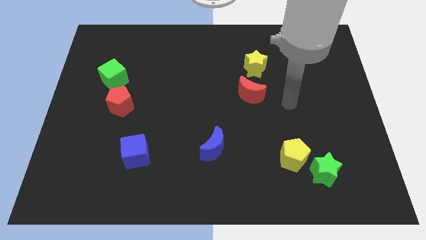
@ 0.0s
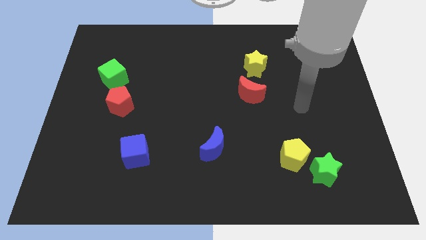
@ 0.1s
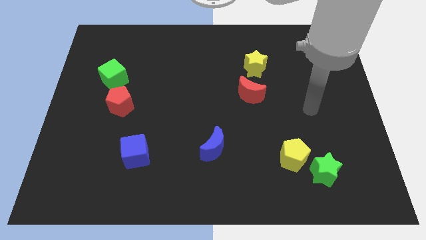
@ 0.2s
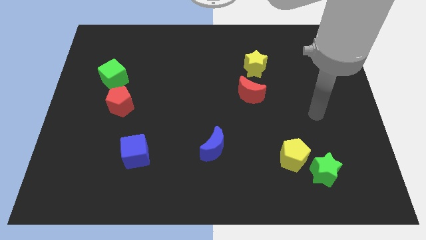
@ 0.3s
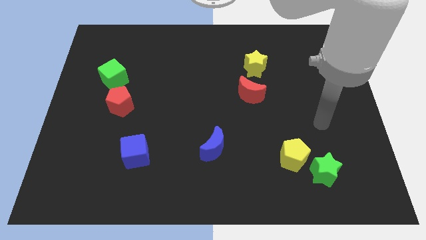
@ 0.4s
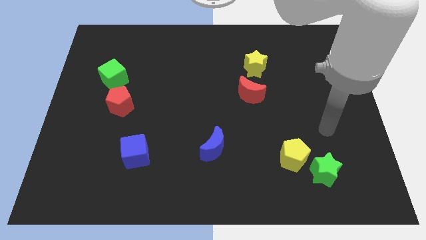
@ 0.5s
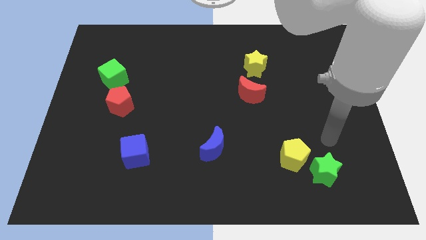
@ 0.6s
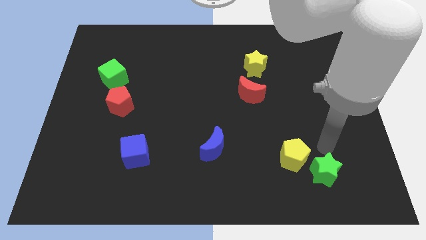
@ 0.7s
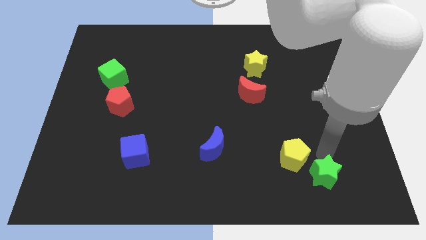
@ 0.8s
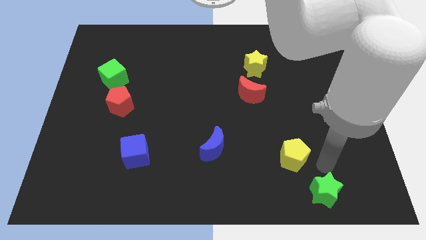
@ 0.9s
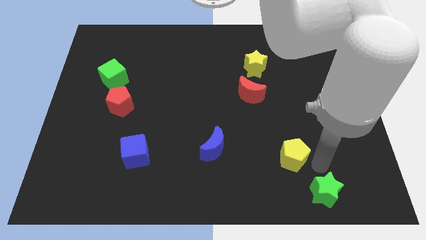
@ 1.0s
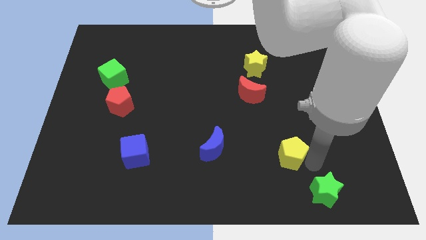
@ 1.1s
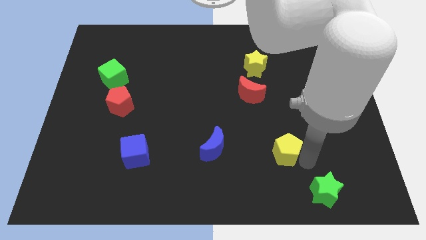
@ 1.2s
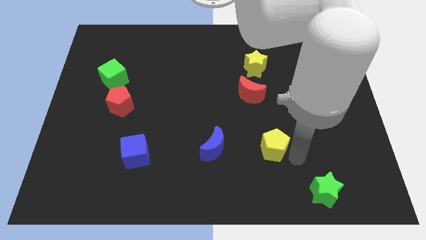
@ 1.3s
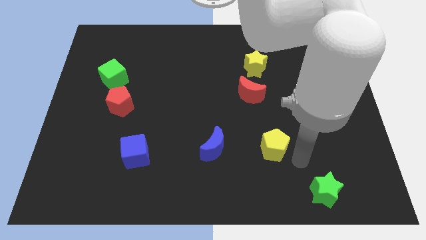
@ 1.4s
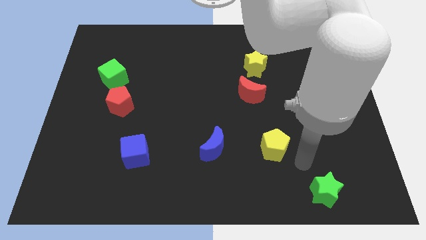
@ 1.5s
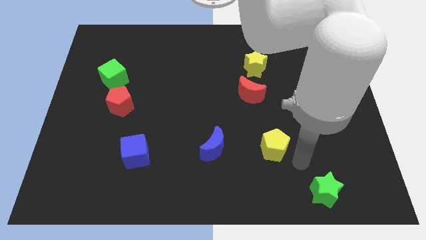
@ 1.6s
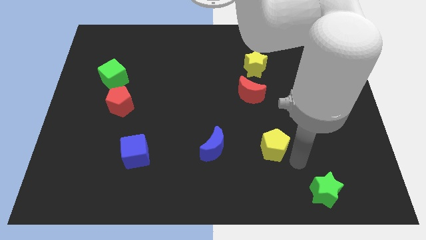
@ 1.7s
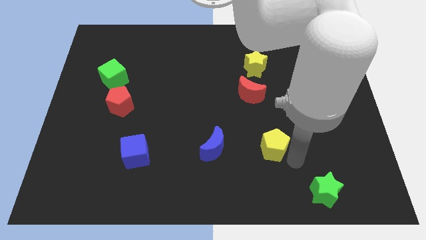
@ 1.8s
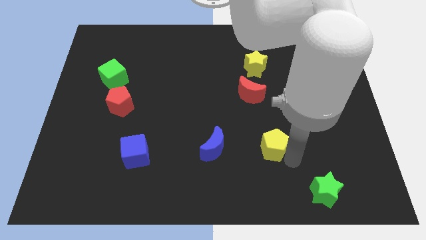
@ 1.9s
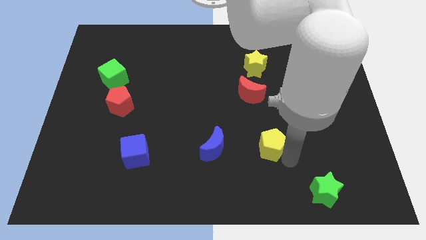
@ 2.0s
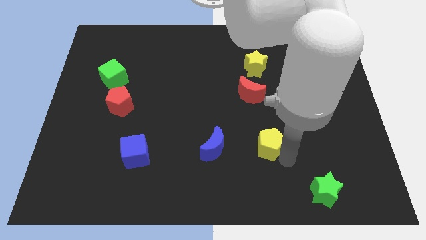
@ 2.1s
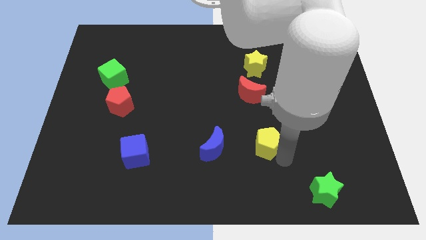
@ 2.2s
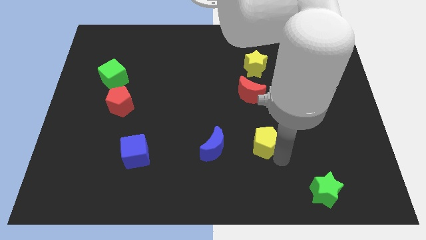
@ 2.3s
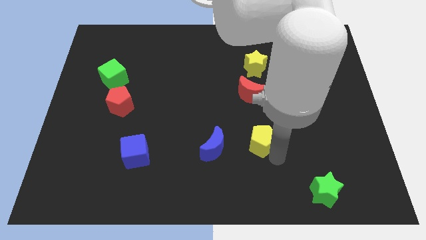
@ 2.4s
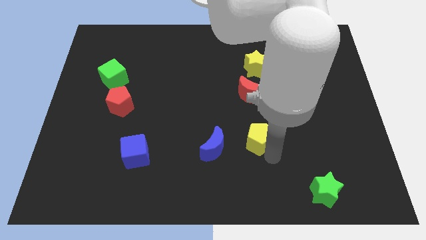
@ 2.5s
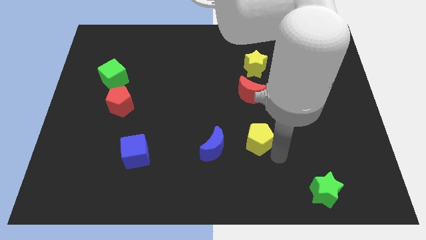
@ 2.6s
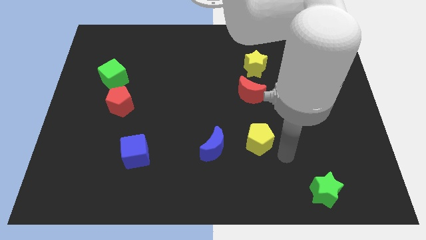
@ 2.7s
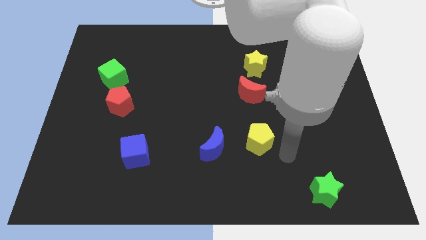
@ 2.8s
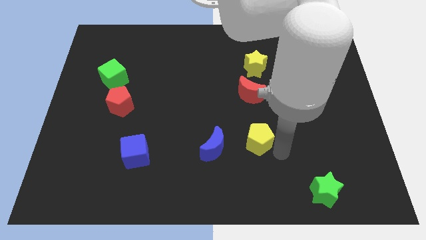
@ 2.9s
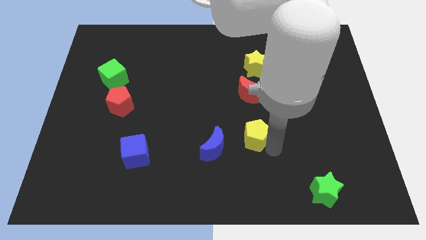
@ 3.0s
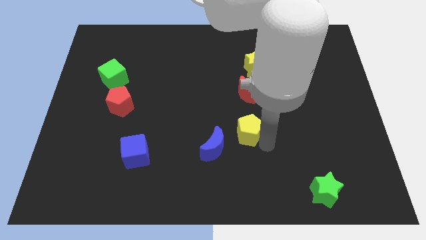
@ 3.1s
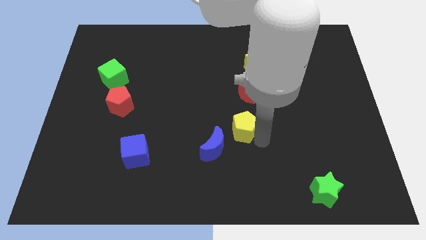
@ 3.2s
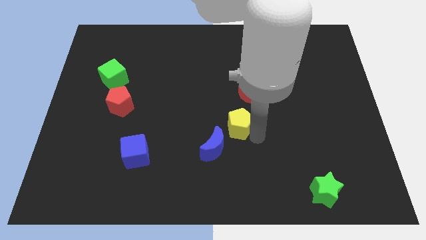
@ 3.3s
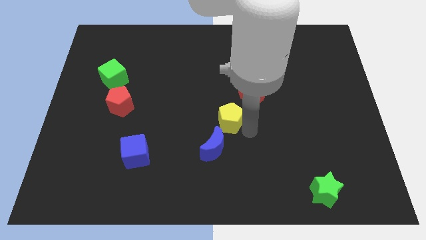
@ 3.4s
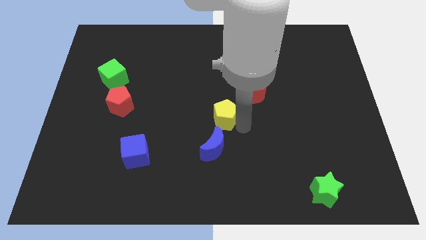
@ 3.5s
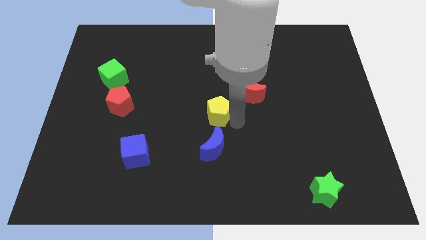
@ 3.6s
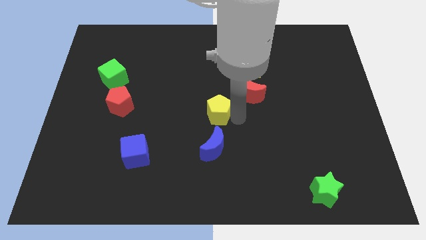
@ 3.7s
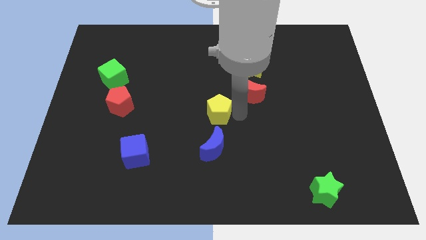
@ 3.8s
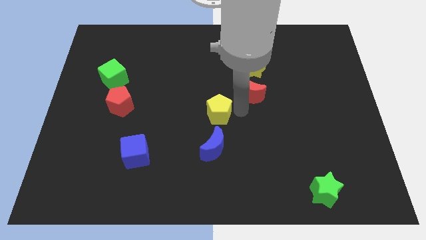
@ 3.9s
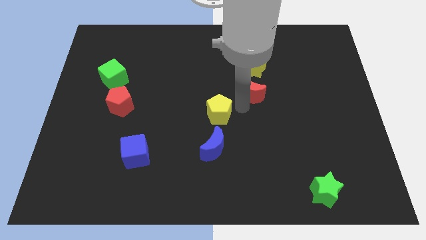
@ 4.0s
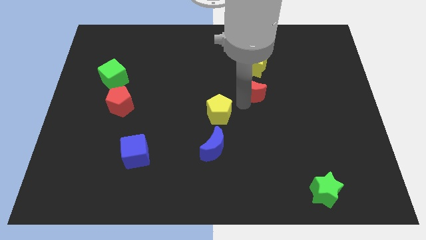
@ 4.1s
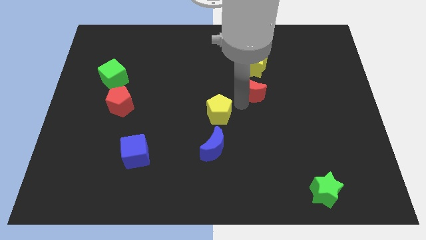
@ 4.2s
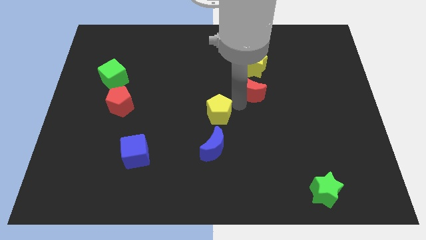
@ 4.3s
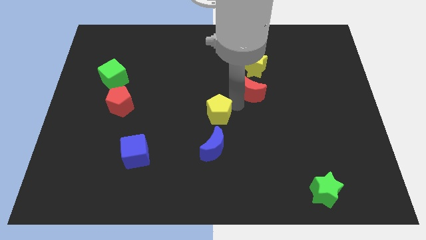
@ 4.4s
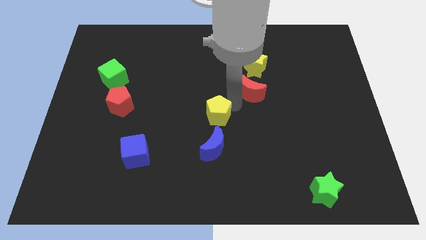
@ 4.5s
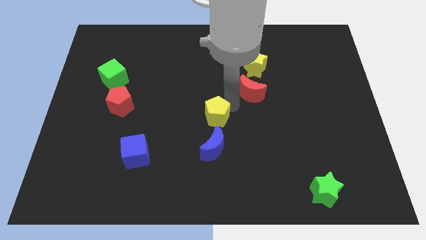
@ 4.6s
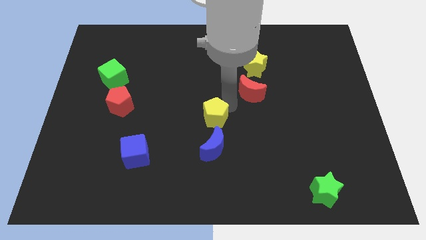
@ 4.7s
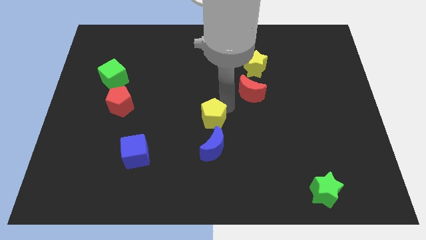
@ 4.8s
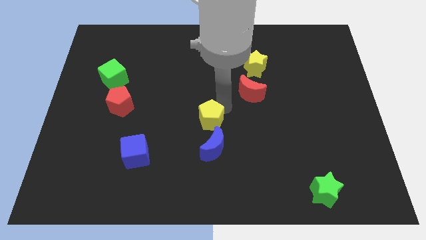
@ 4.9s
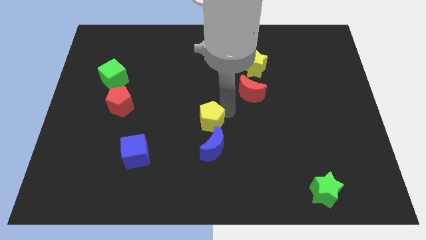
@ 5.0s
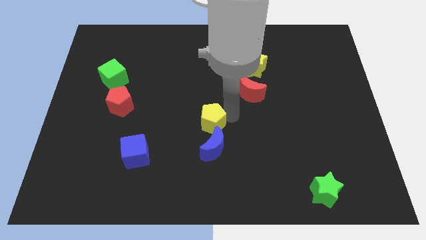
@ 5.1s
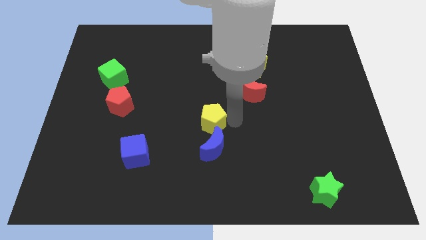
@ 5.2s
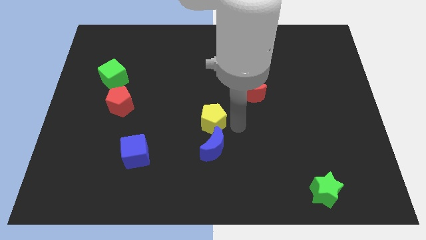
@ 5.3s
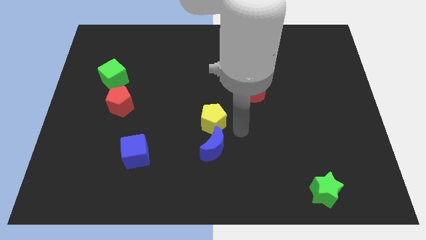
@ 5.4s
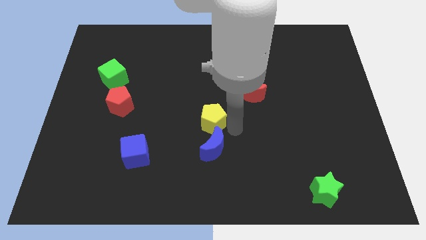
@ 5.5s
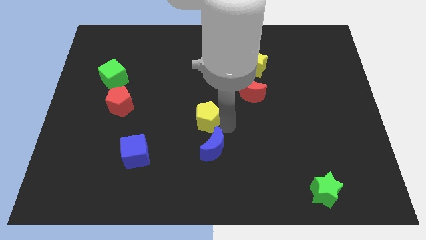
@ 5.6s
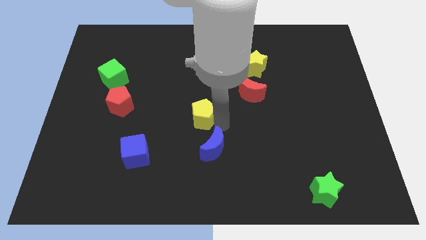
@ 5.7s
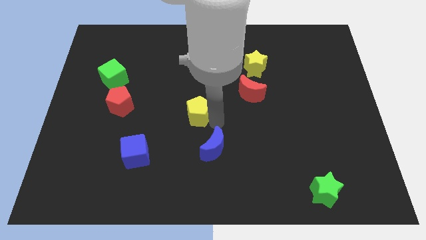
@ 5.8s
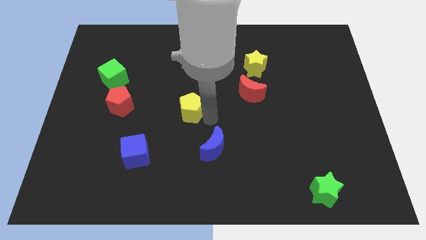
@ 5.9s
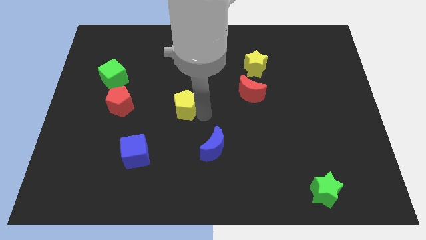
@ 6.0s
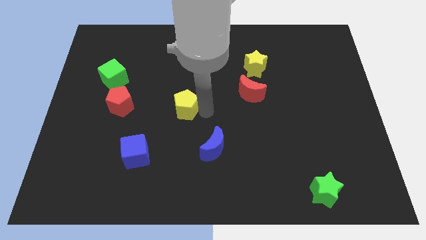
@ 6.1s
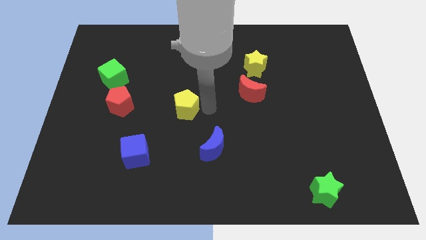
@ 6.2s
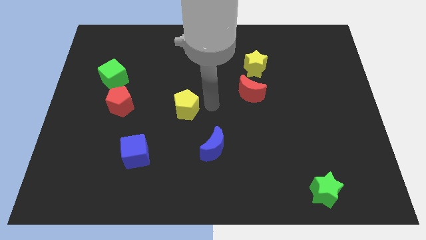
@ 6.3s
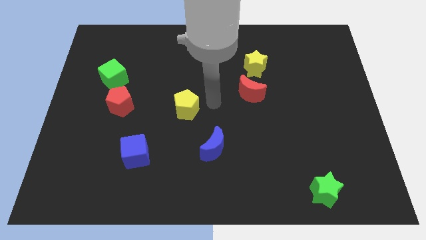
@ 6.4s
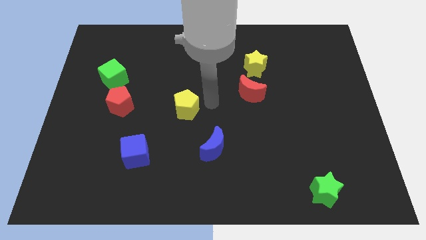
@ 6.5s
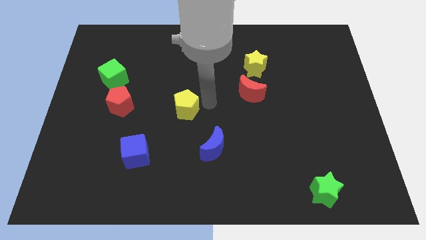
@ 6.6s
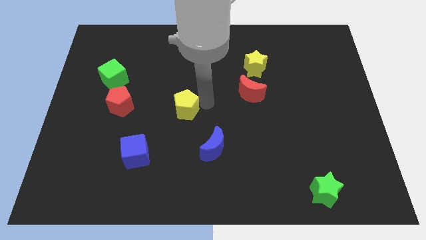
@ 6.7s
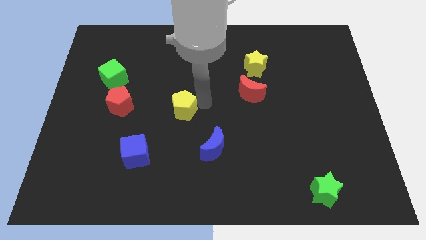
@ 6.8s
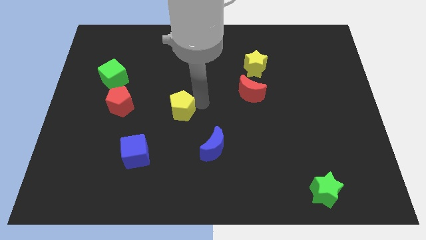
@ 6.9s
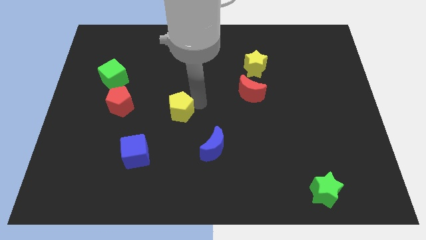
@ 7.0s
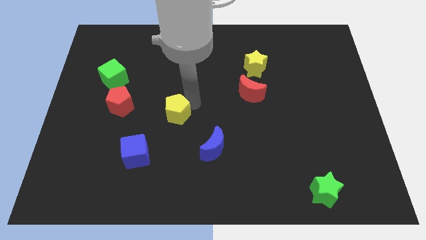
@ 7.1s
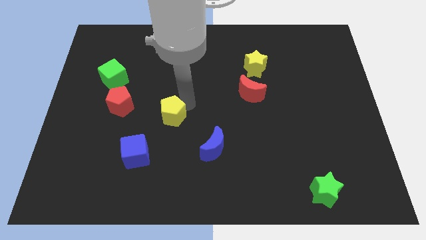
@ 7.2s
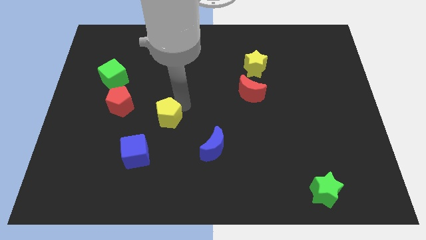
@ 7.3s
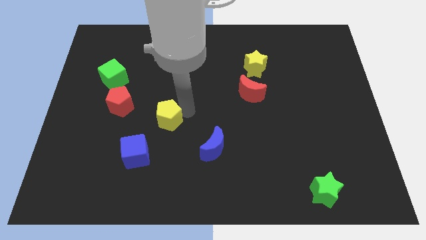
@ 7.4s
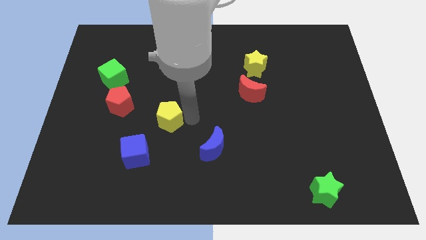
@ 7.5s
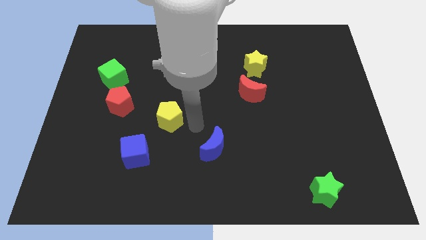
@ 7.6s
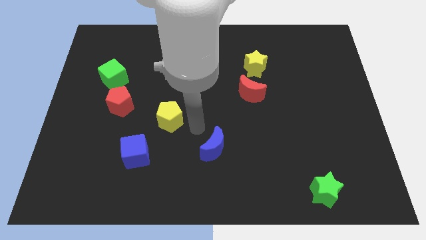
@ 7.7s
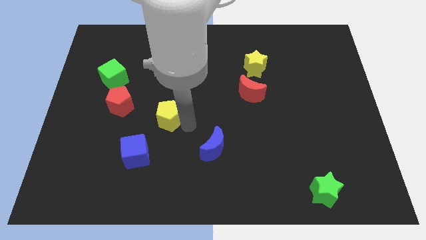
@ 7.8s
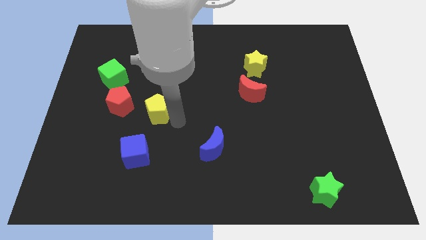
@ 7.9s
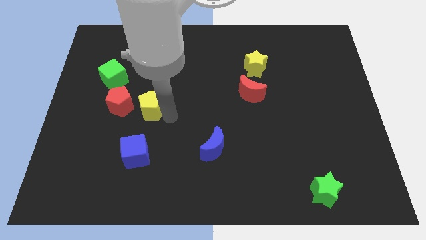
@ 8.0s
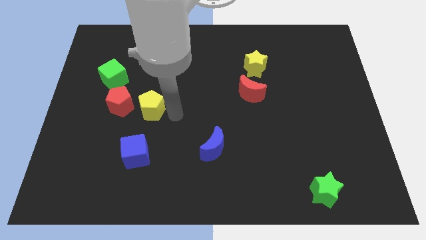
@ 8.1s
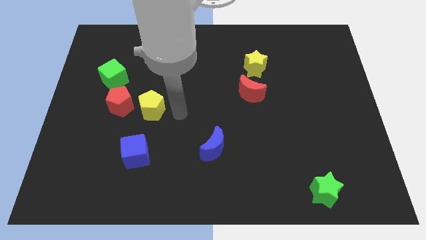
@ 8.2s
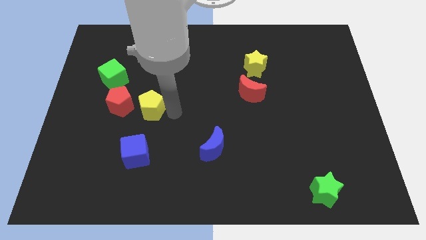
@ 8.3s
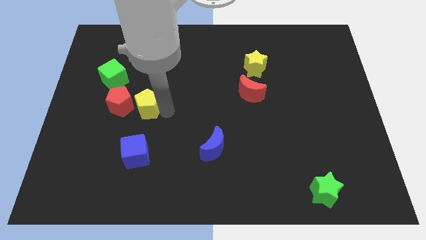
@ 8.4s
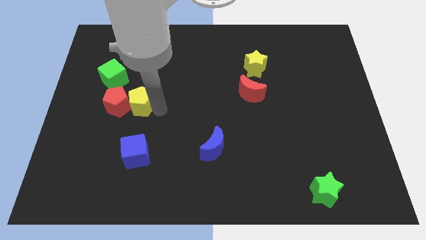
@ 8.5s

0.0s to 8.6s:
slide the yellow pentagon towards the red pentagon
